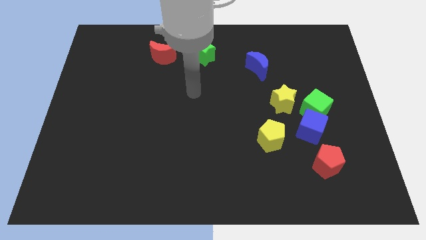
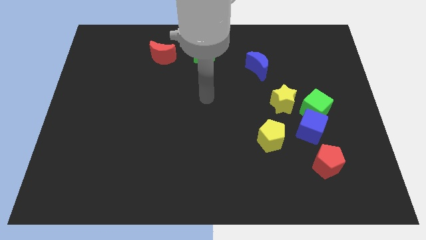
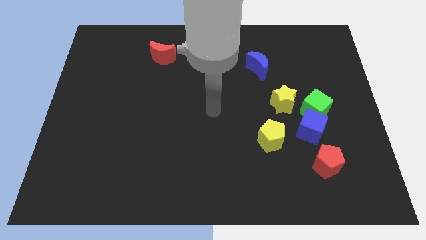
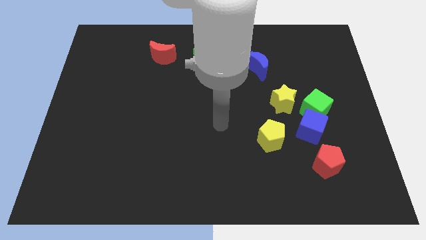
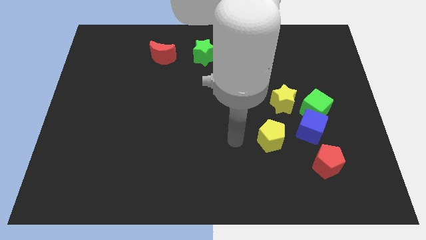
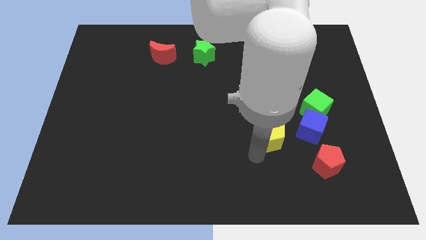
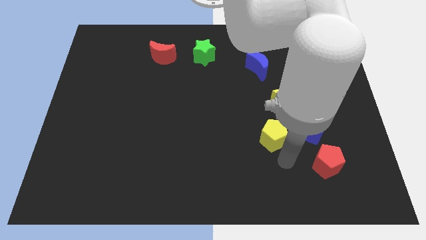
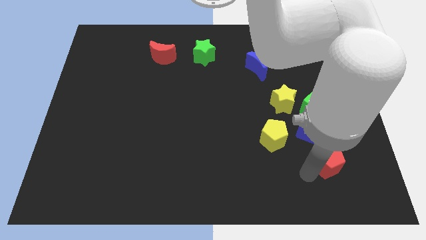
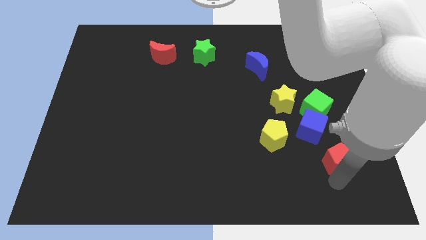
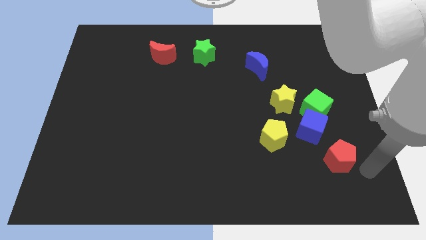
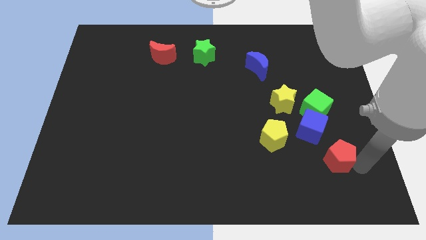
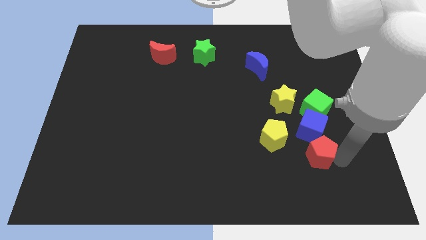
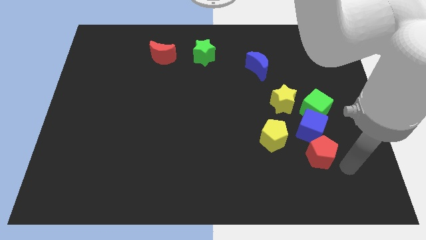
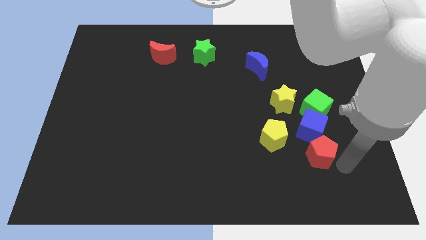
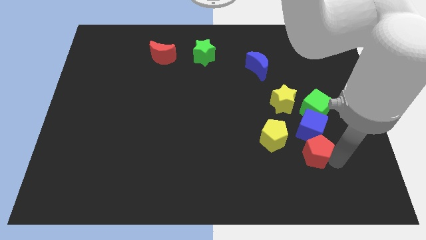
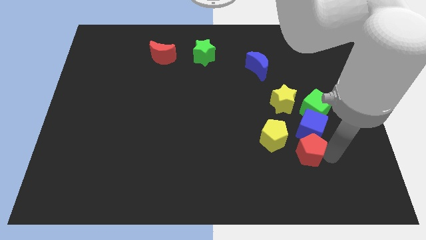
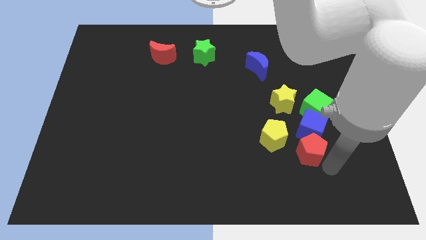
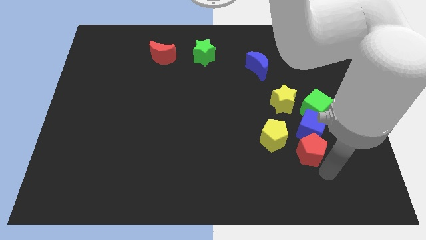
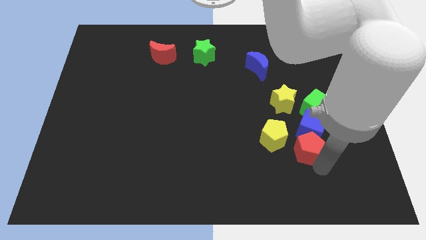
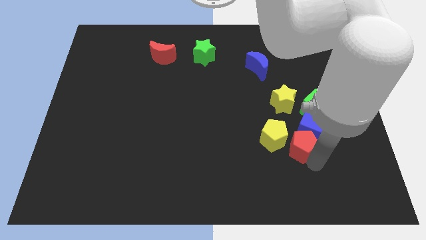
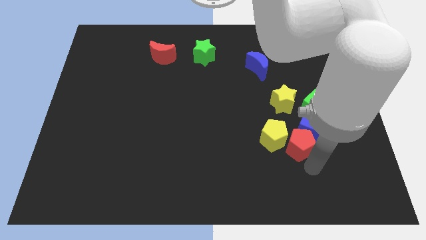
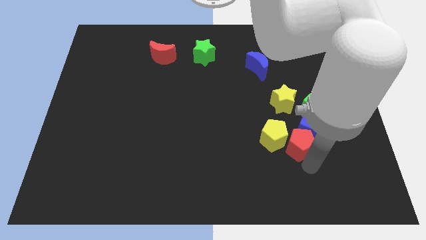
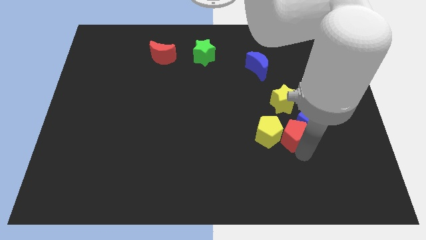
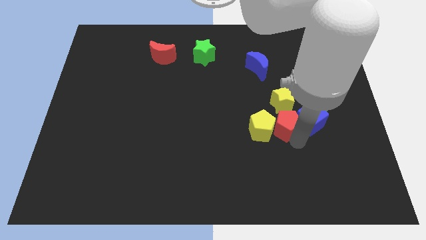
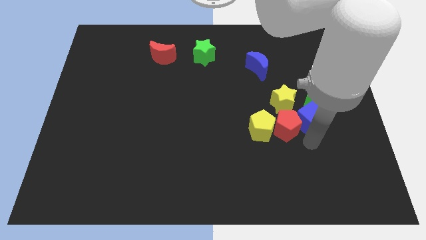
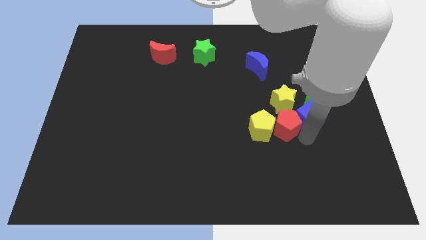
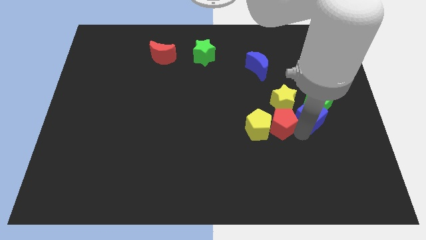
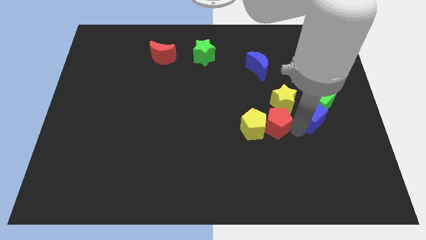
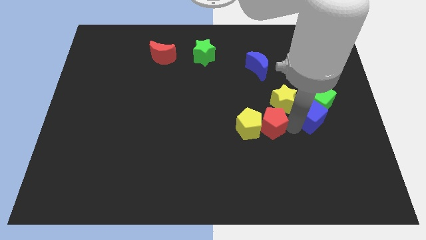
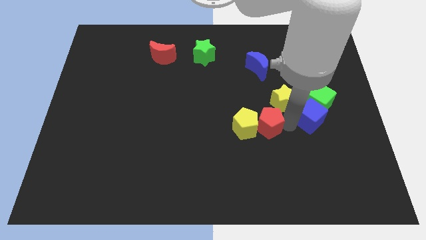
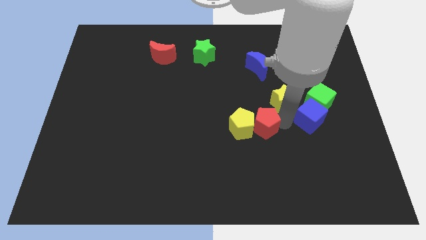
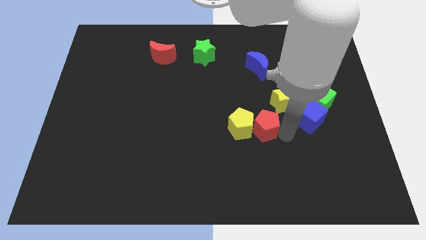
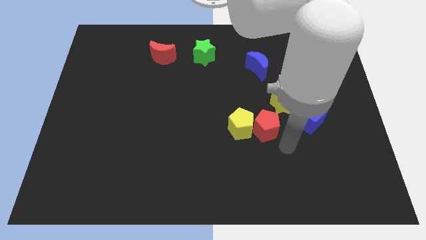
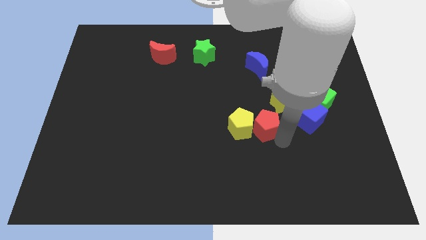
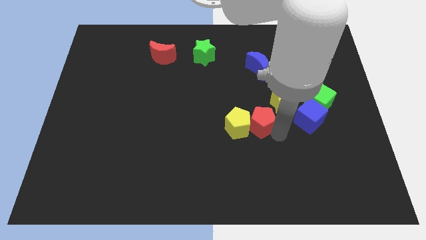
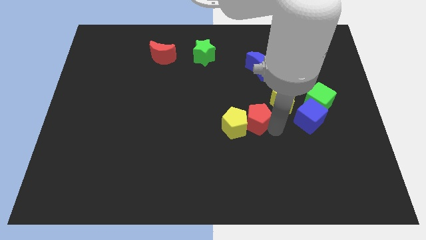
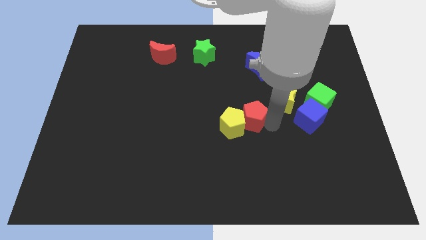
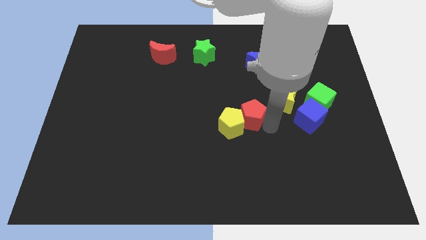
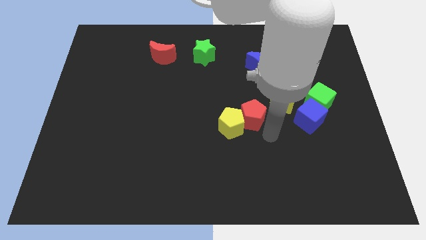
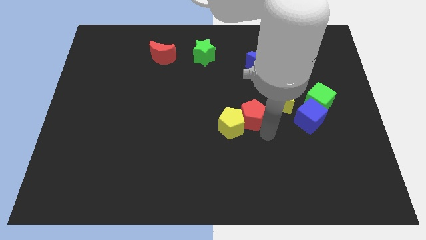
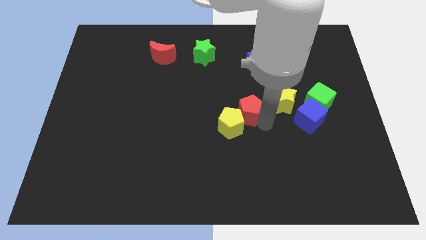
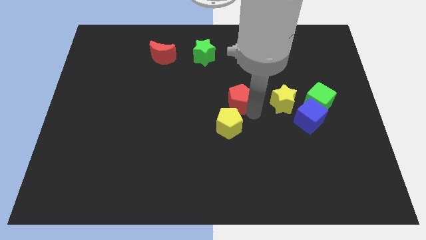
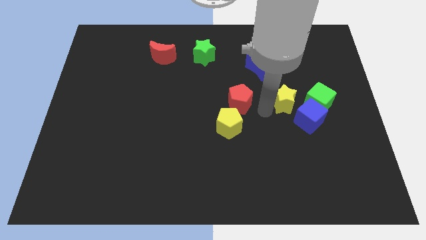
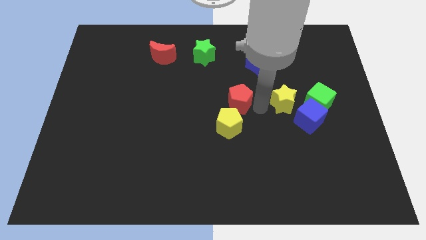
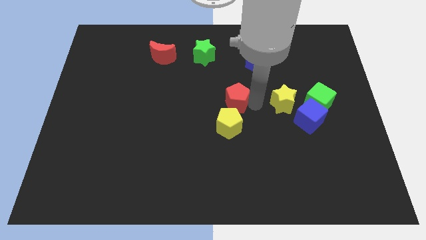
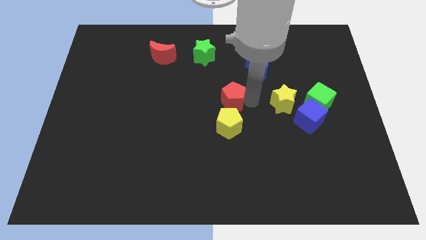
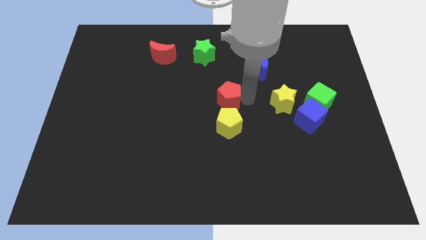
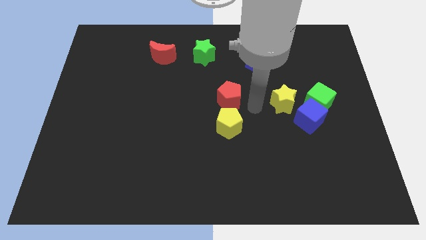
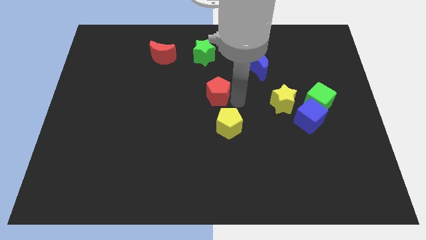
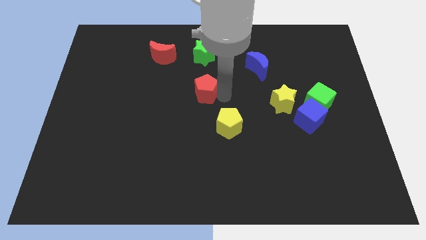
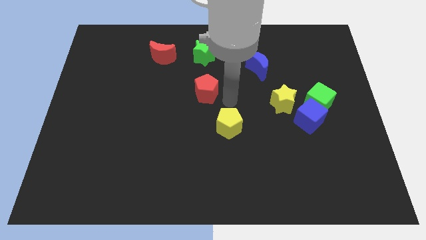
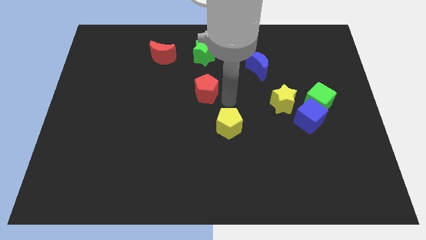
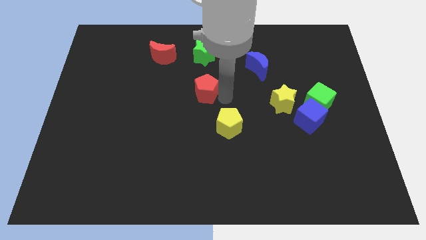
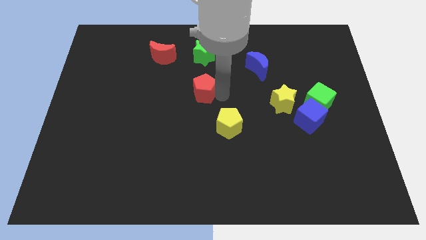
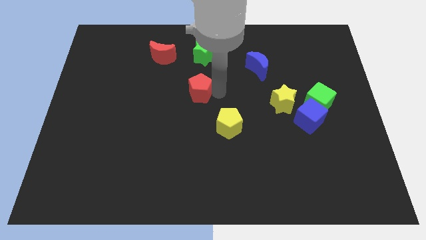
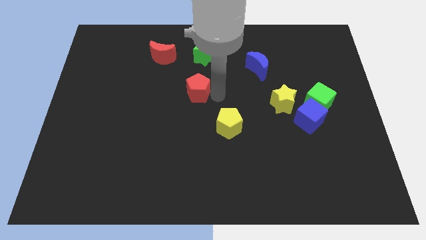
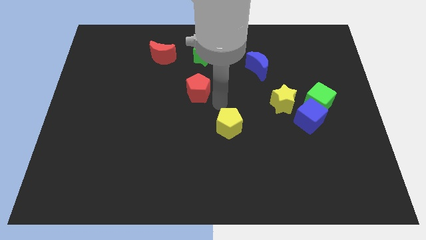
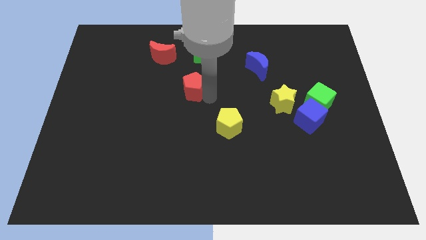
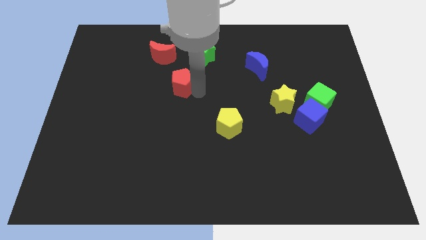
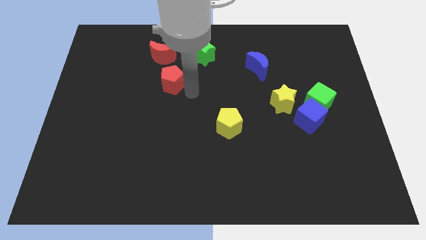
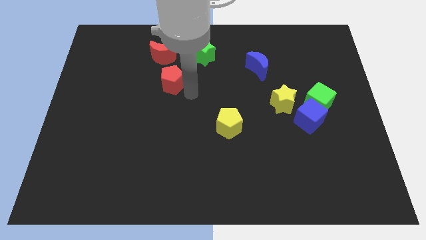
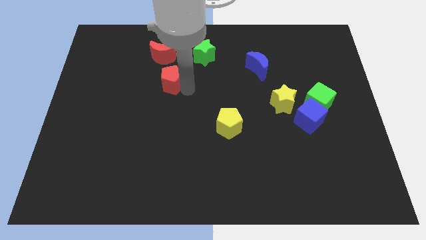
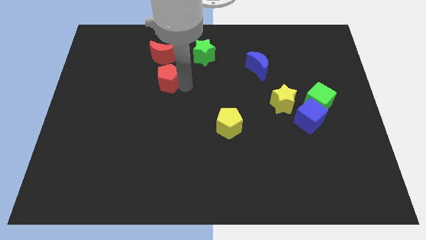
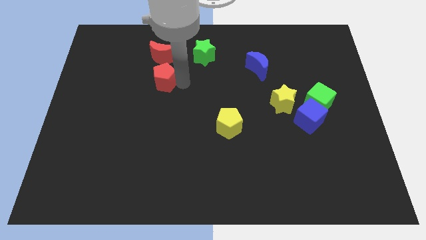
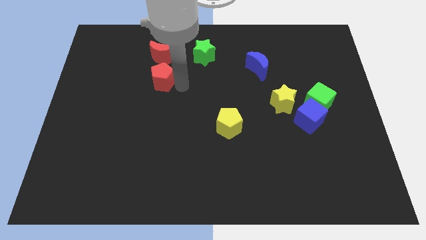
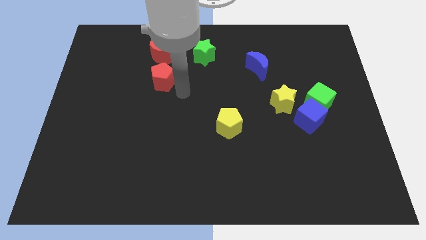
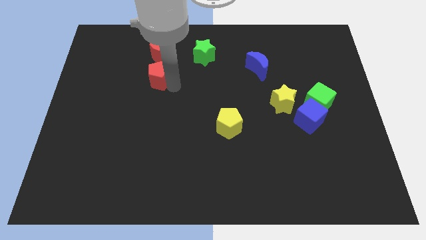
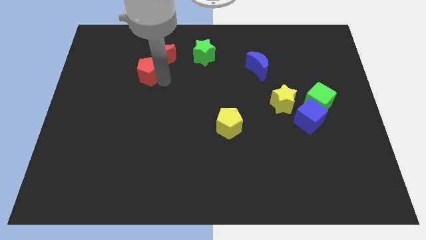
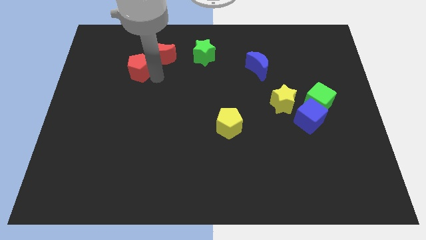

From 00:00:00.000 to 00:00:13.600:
slide the red pentagon just left of the red moon
